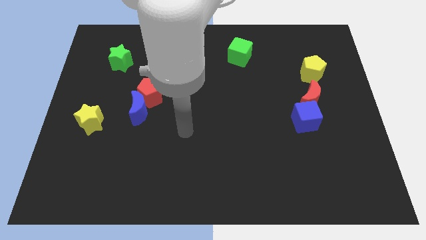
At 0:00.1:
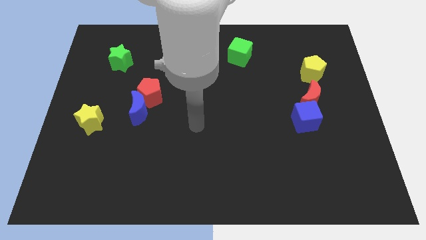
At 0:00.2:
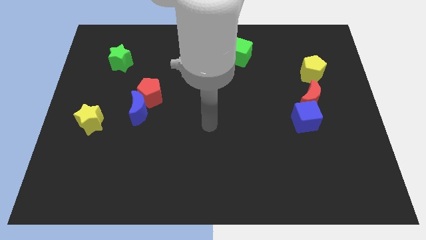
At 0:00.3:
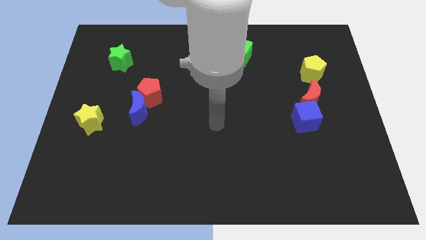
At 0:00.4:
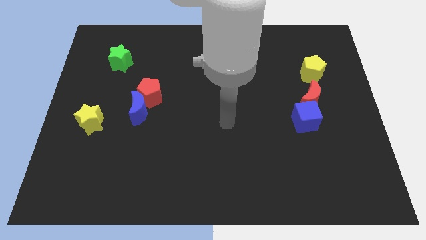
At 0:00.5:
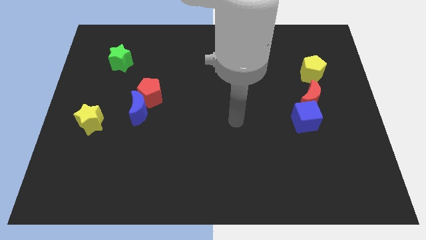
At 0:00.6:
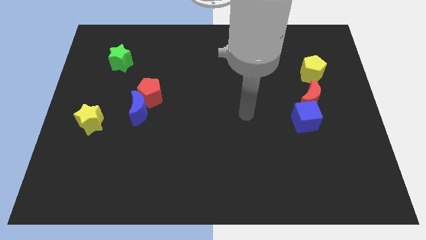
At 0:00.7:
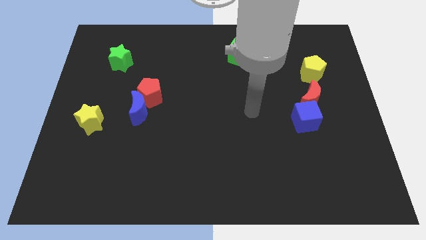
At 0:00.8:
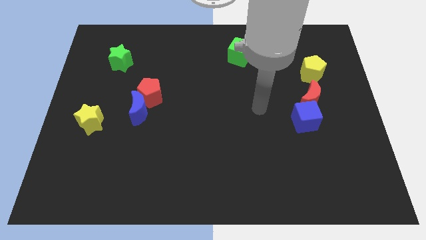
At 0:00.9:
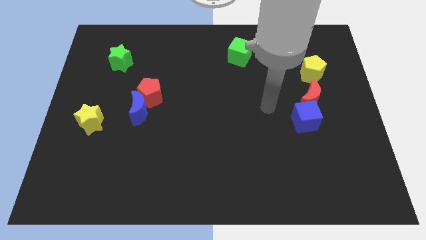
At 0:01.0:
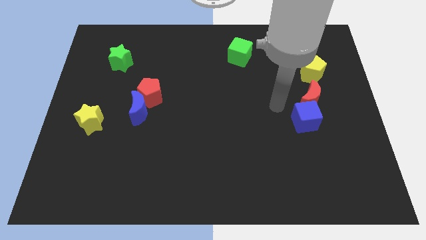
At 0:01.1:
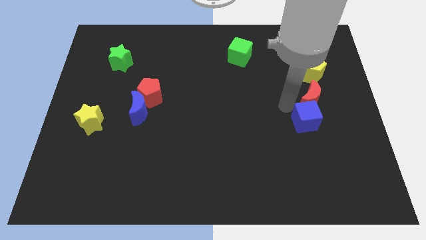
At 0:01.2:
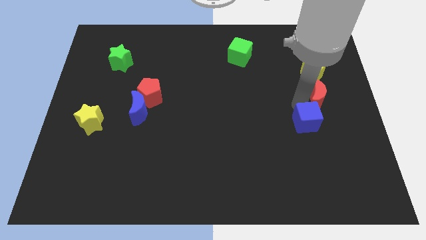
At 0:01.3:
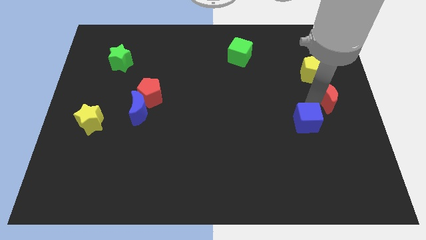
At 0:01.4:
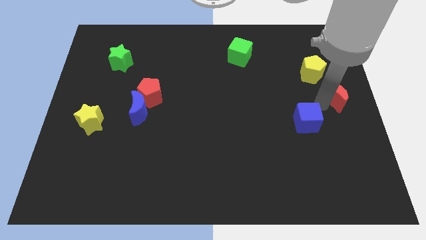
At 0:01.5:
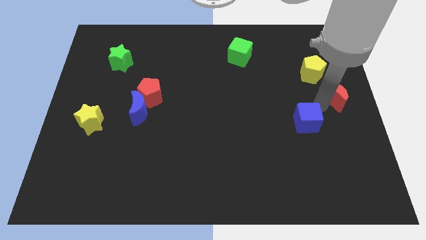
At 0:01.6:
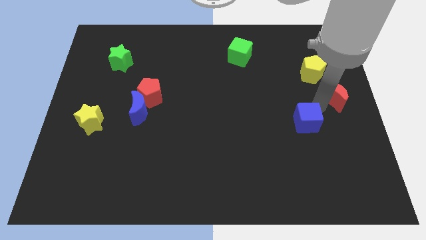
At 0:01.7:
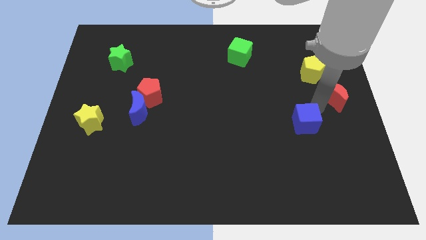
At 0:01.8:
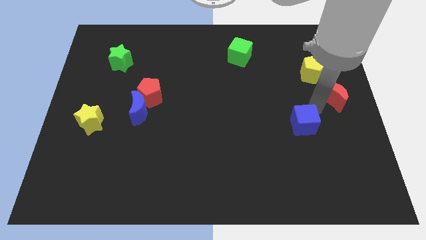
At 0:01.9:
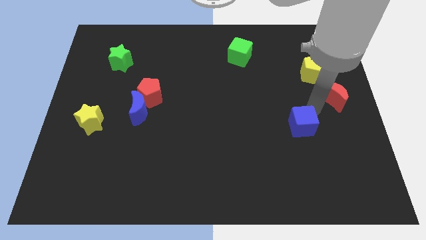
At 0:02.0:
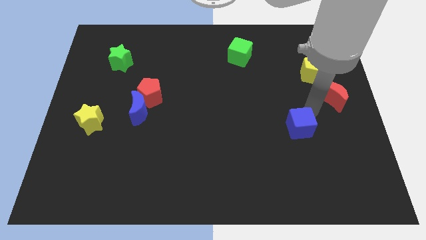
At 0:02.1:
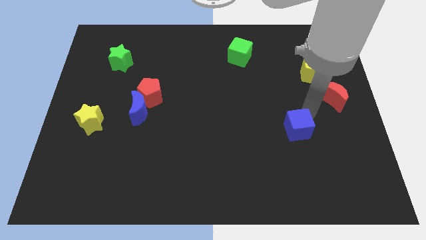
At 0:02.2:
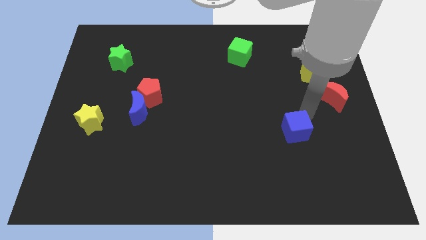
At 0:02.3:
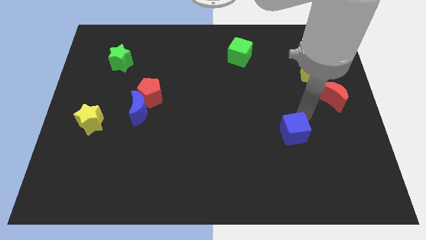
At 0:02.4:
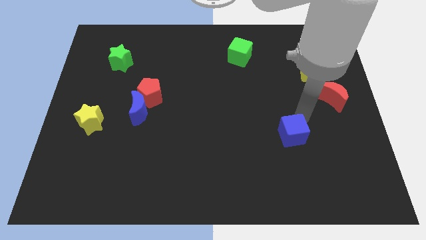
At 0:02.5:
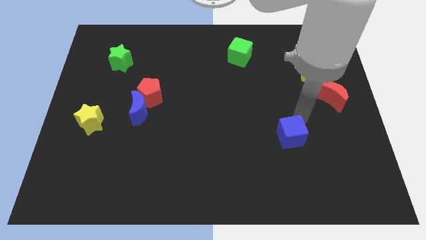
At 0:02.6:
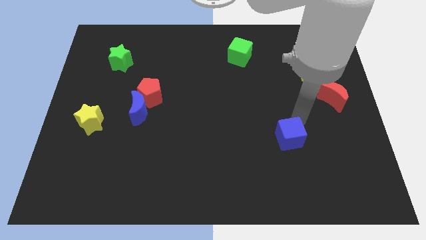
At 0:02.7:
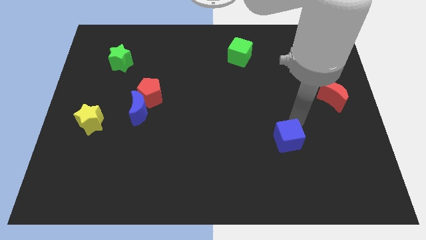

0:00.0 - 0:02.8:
slightly slide the blue cube down and left diagonally

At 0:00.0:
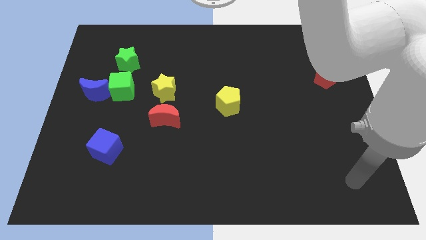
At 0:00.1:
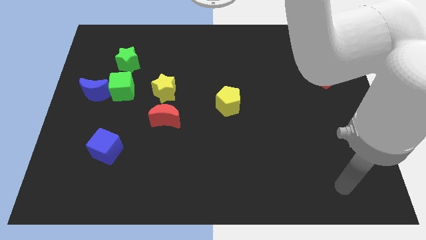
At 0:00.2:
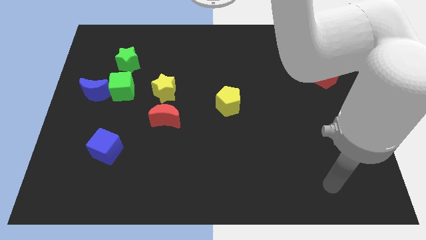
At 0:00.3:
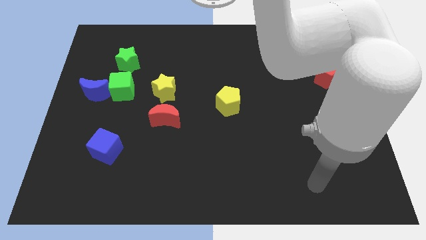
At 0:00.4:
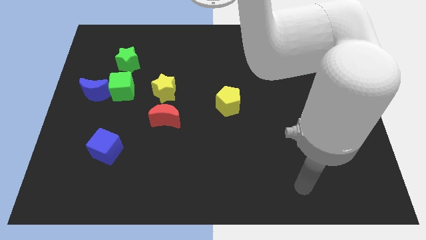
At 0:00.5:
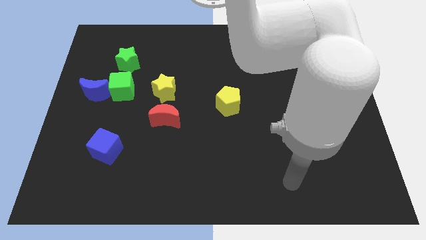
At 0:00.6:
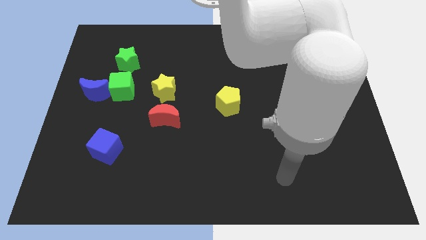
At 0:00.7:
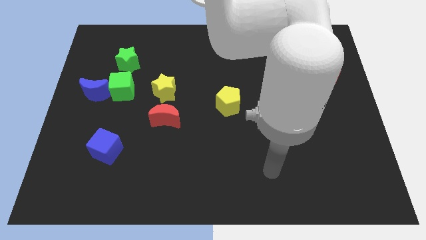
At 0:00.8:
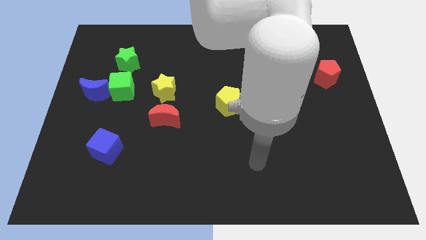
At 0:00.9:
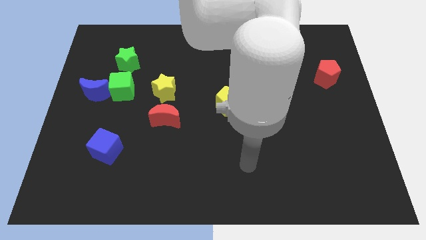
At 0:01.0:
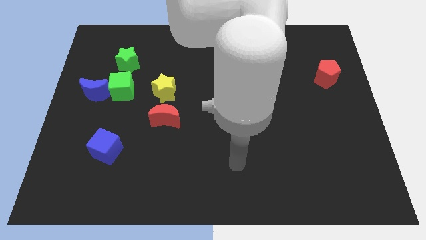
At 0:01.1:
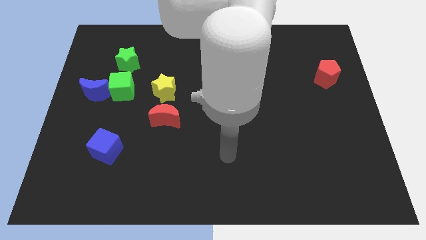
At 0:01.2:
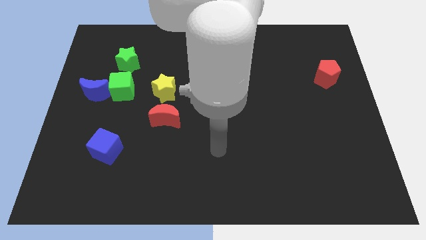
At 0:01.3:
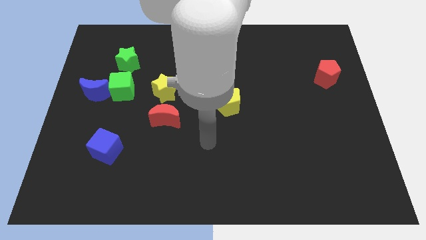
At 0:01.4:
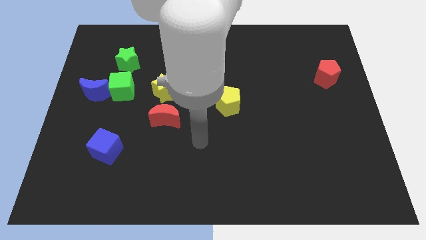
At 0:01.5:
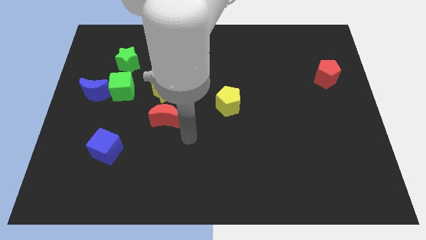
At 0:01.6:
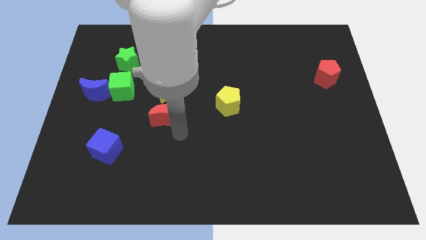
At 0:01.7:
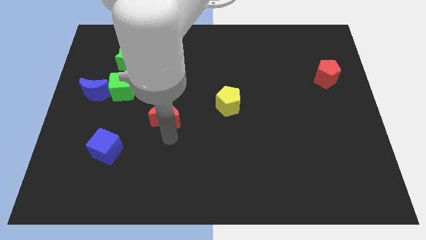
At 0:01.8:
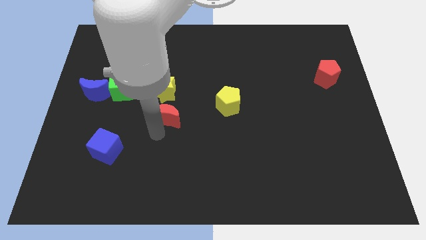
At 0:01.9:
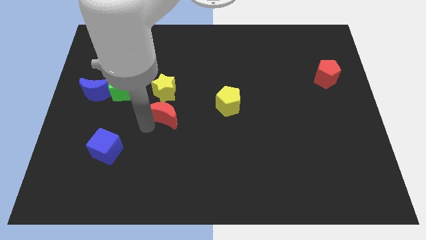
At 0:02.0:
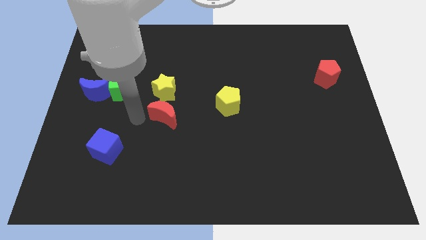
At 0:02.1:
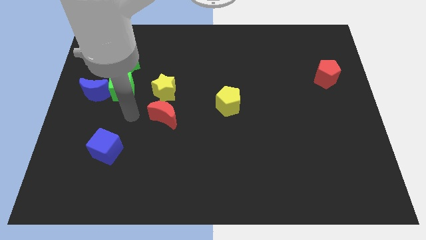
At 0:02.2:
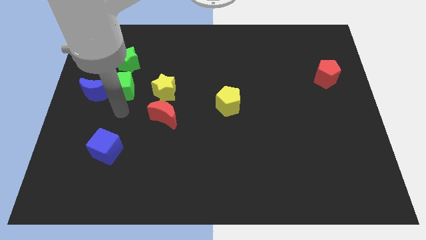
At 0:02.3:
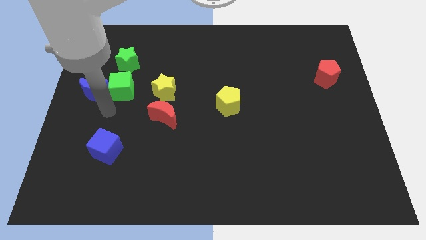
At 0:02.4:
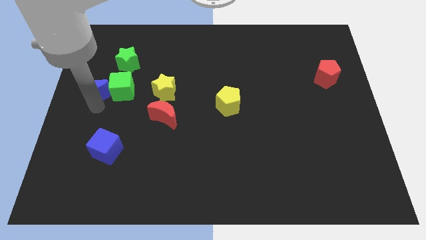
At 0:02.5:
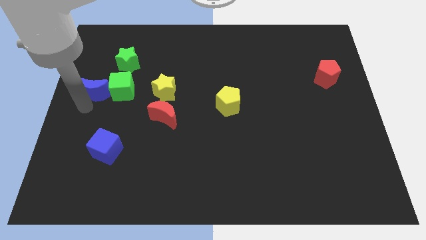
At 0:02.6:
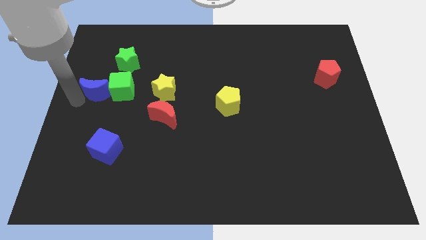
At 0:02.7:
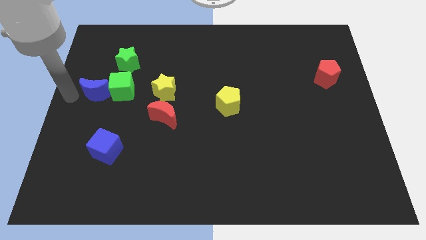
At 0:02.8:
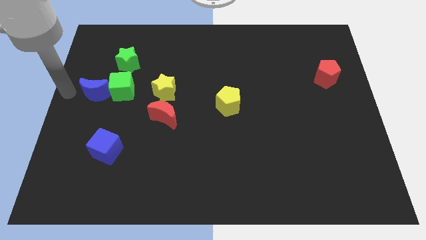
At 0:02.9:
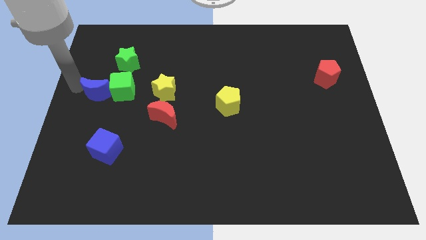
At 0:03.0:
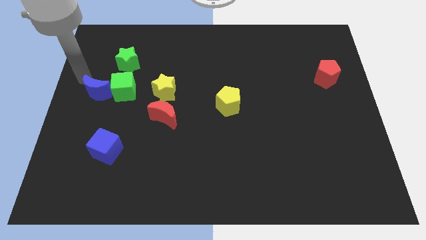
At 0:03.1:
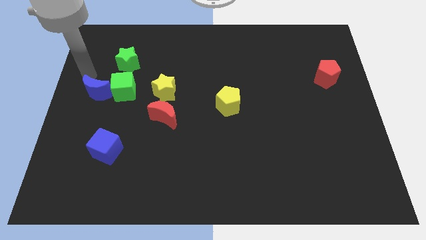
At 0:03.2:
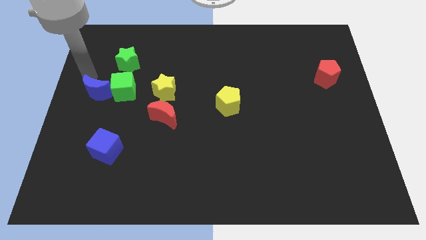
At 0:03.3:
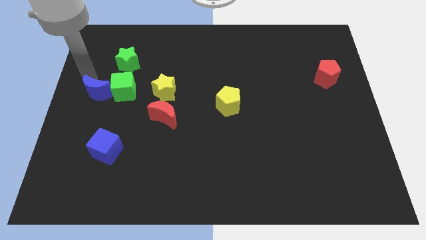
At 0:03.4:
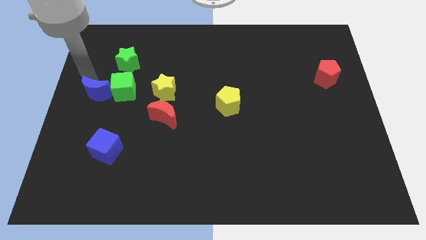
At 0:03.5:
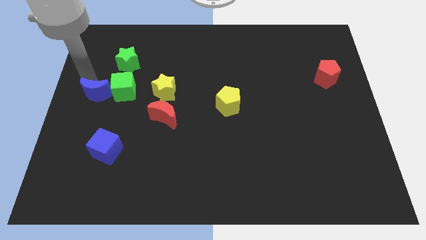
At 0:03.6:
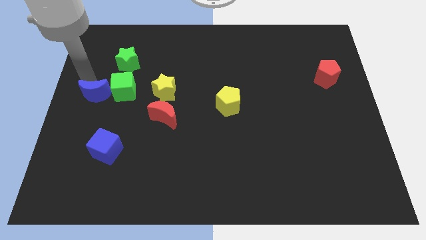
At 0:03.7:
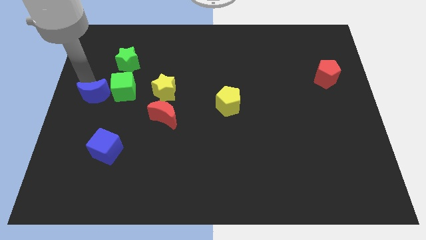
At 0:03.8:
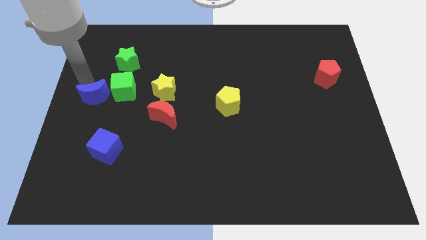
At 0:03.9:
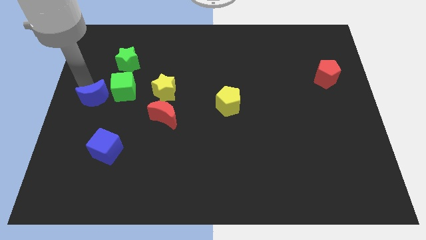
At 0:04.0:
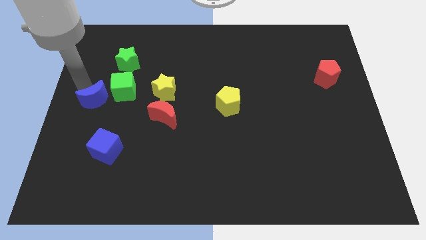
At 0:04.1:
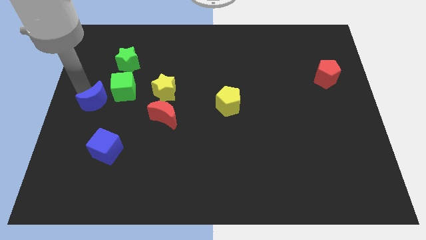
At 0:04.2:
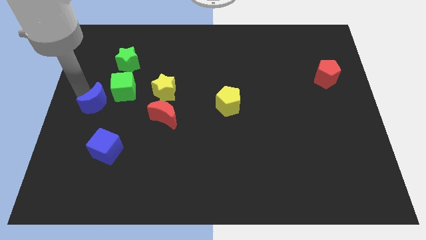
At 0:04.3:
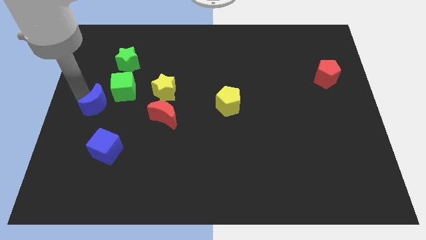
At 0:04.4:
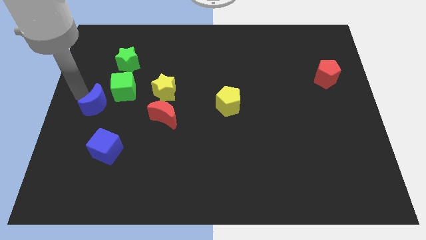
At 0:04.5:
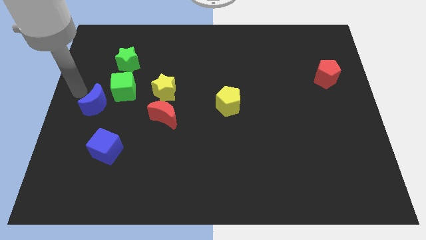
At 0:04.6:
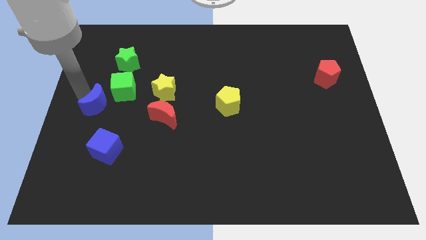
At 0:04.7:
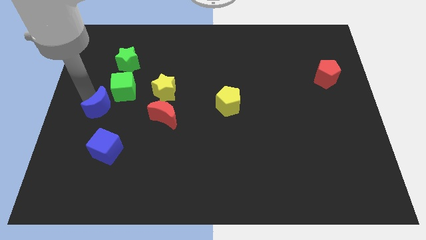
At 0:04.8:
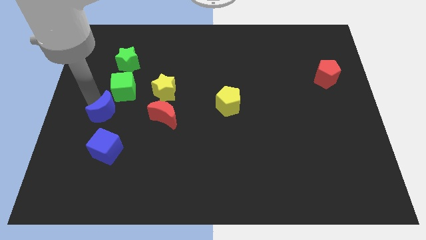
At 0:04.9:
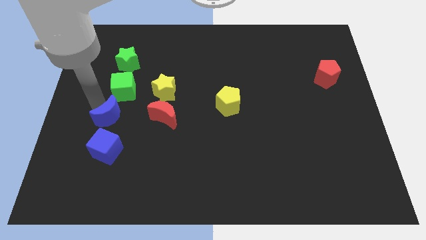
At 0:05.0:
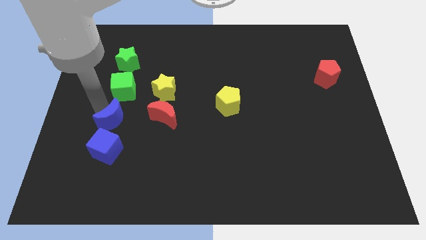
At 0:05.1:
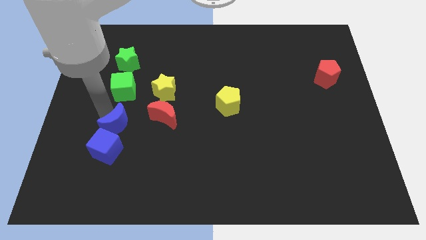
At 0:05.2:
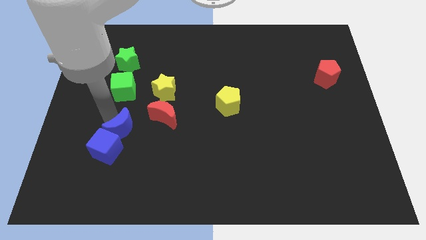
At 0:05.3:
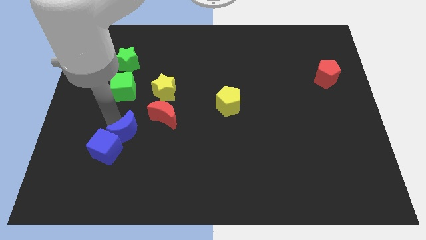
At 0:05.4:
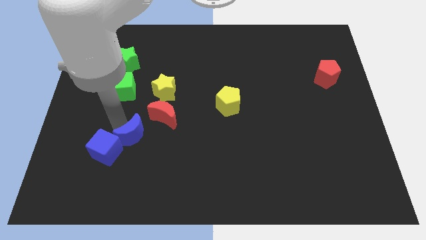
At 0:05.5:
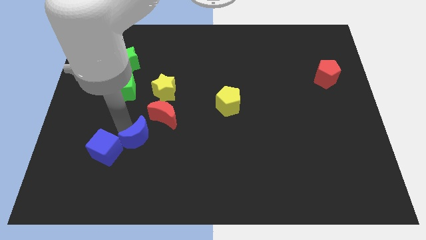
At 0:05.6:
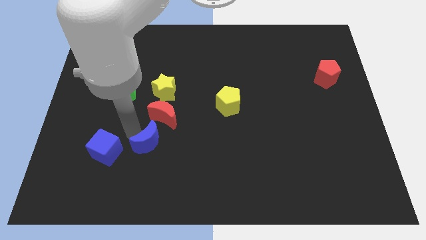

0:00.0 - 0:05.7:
slide the blue moon down and to the right diagonally
